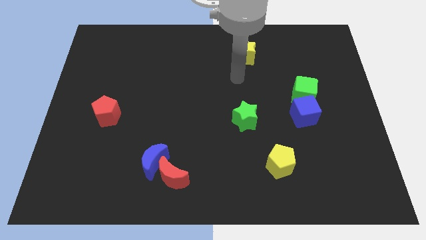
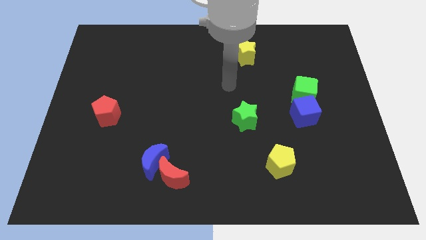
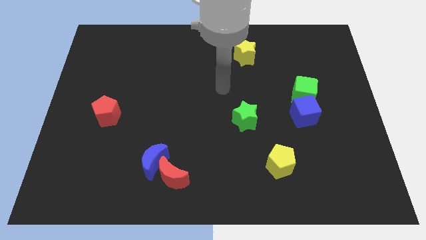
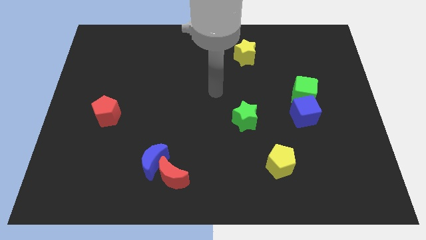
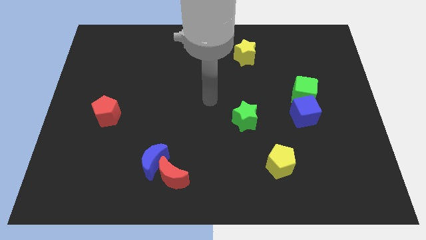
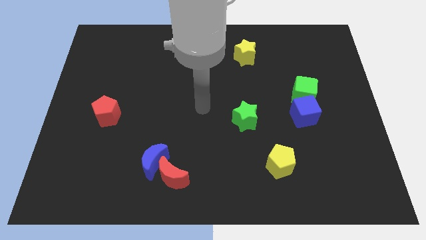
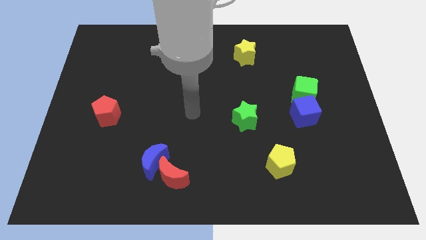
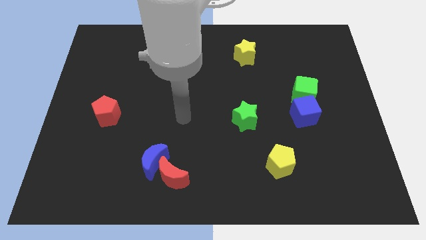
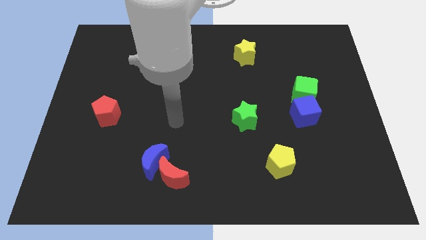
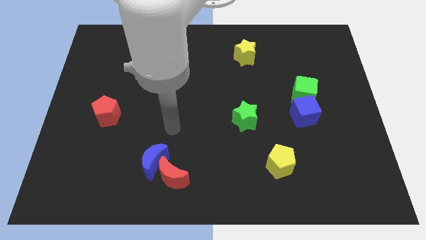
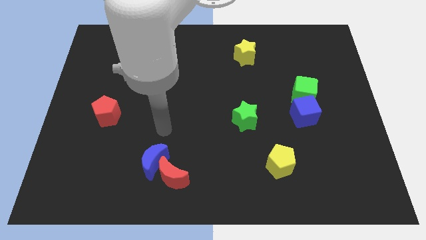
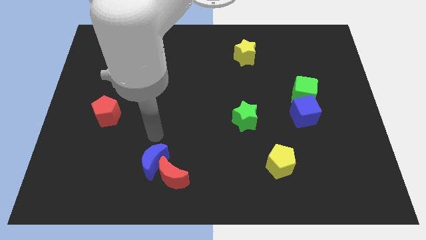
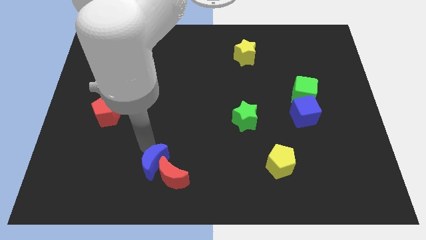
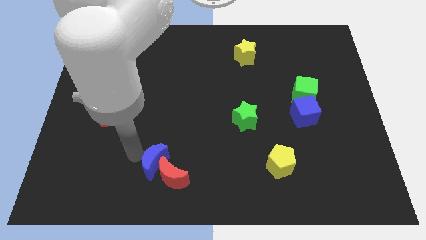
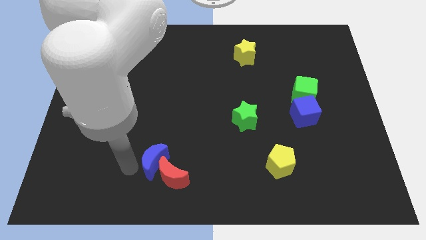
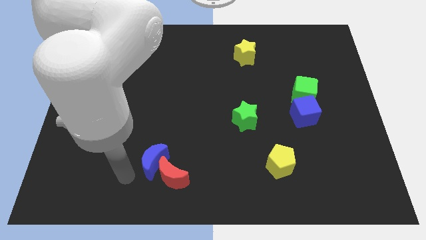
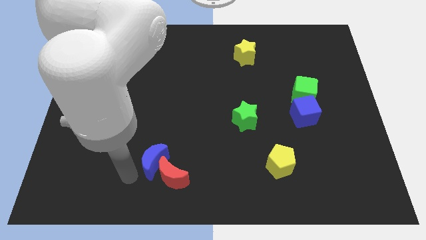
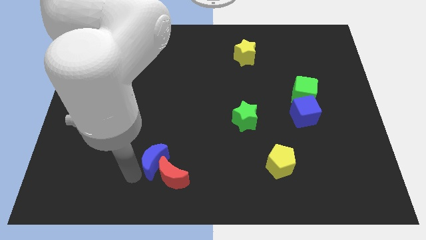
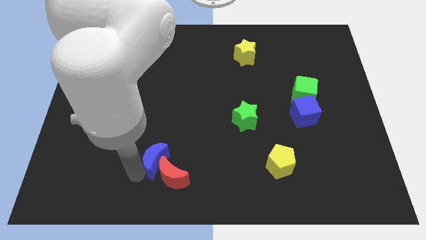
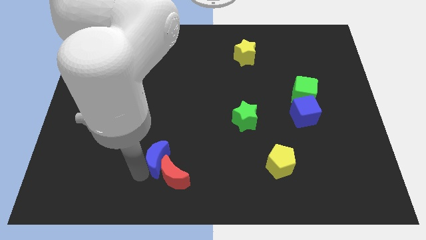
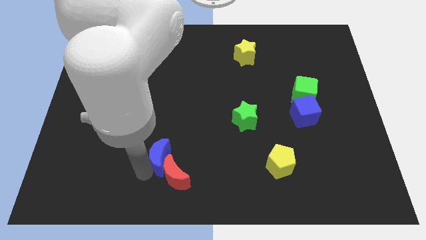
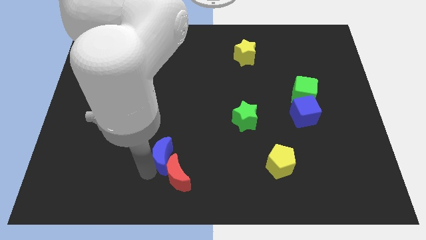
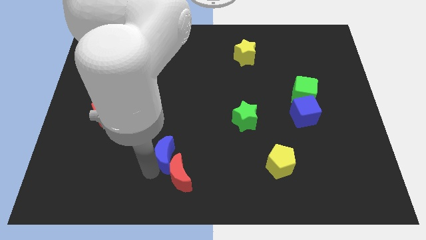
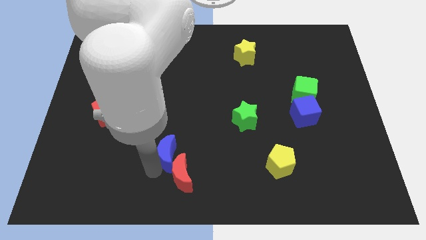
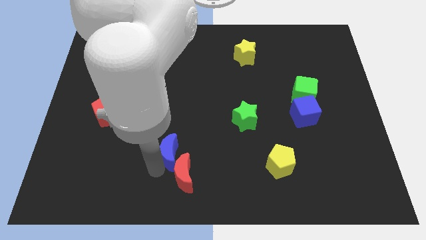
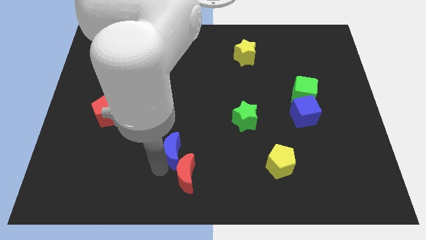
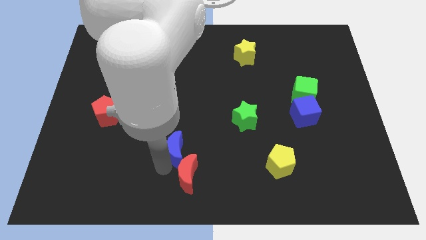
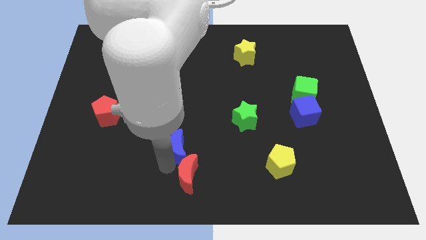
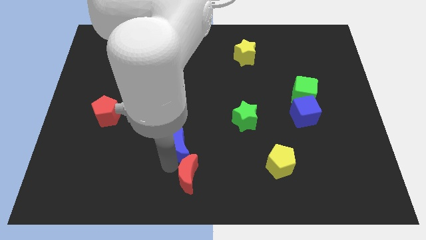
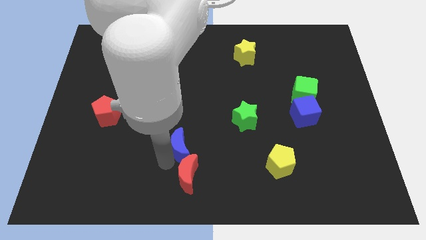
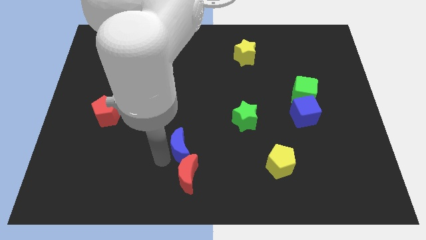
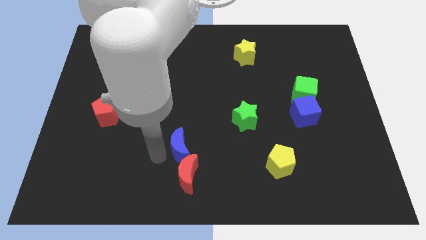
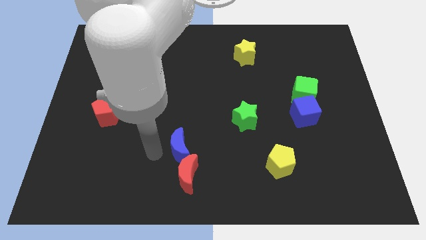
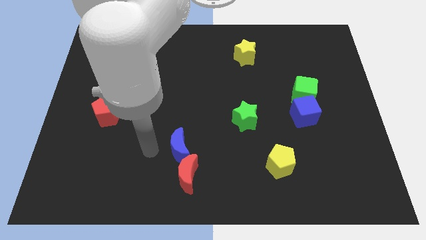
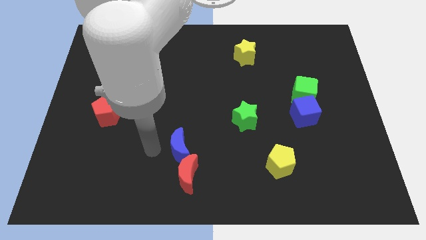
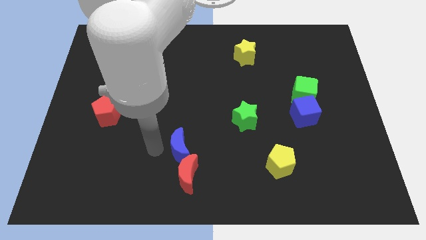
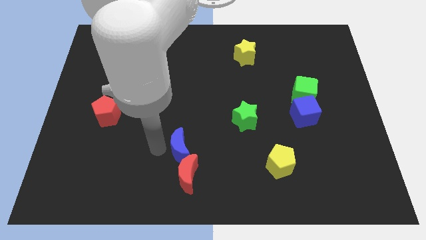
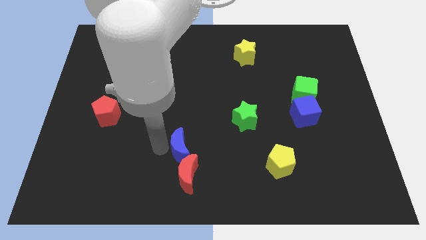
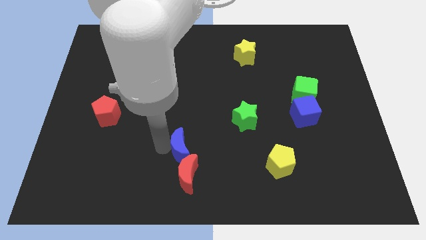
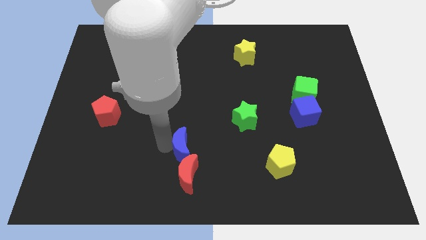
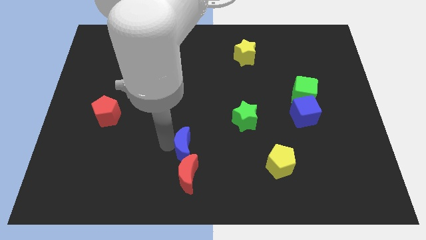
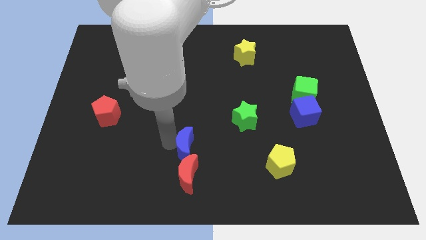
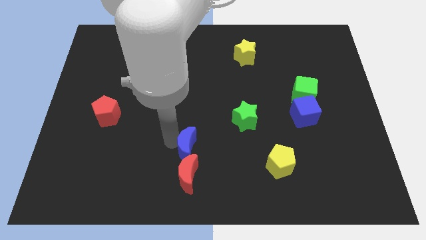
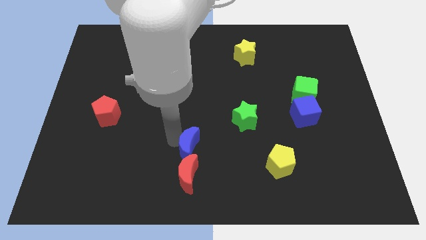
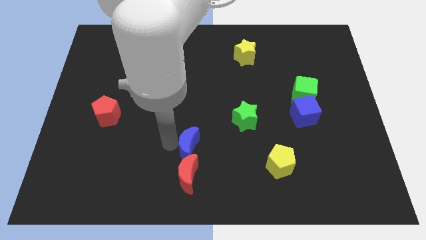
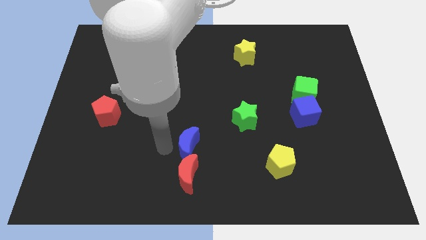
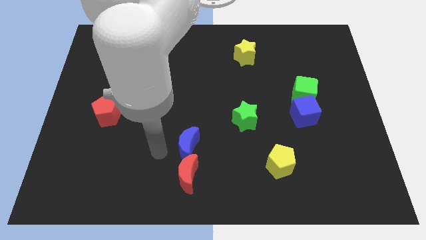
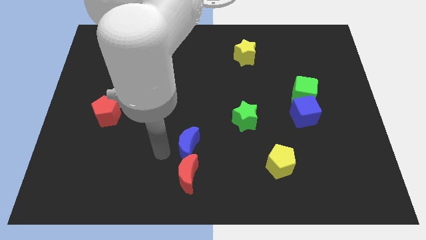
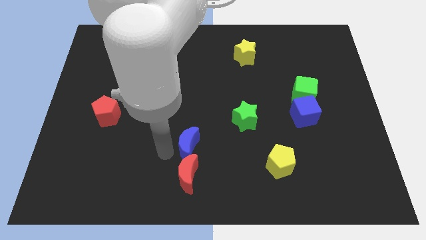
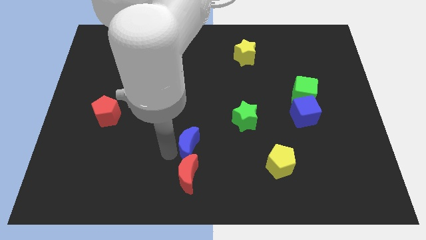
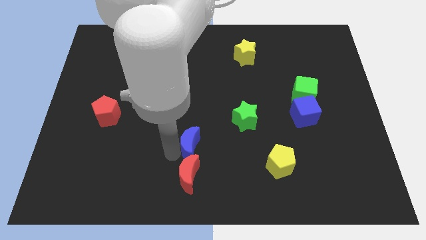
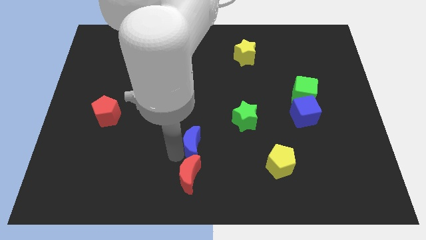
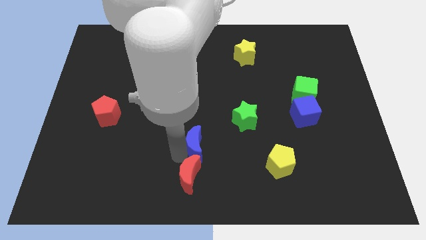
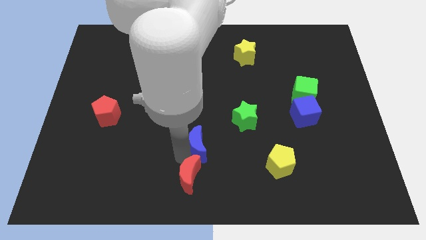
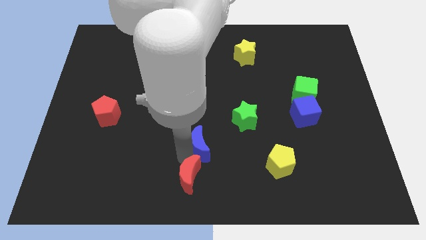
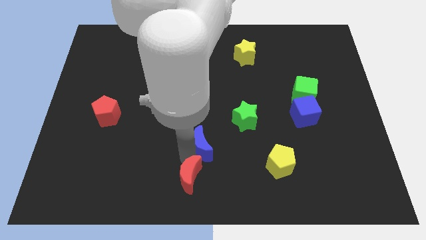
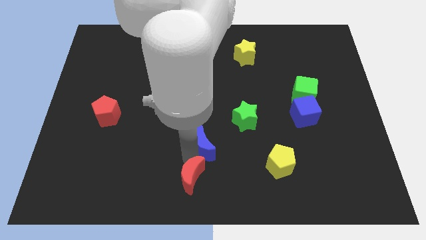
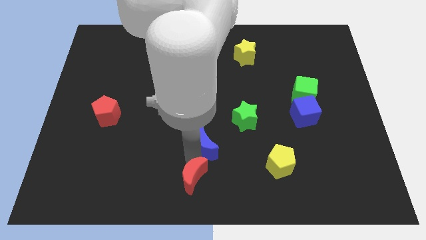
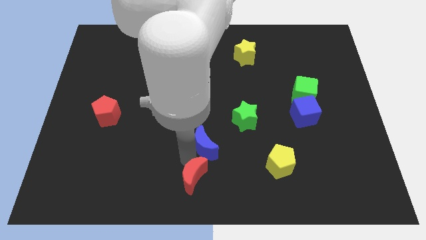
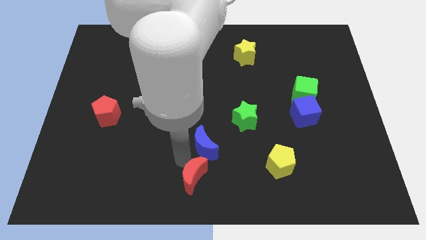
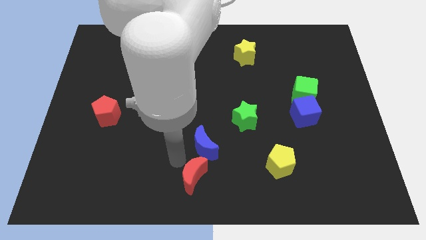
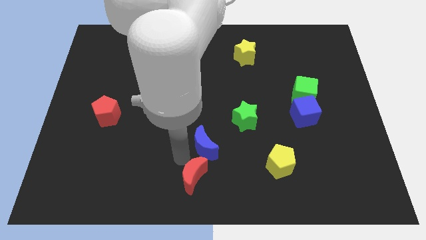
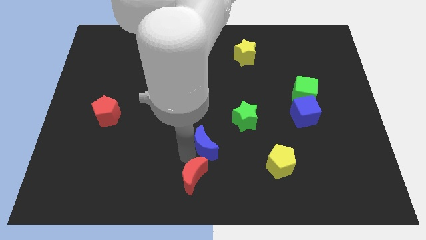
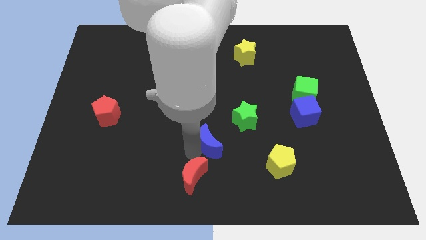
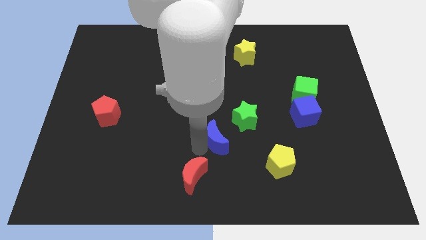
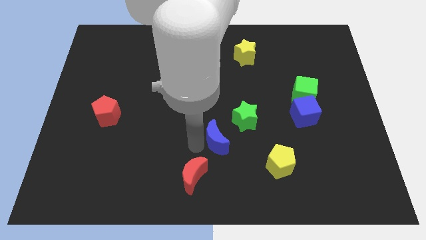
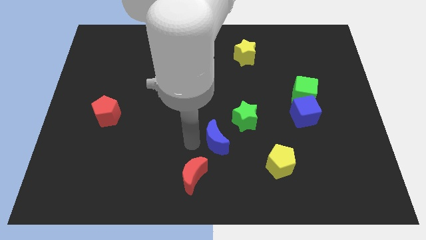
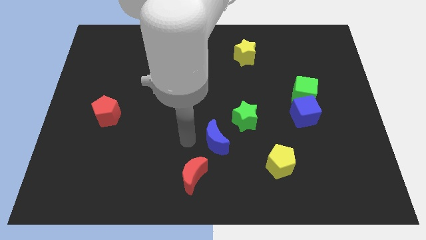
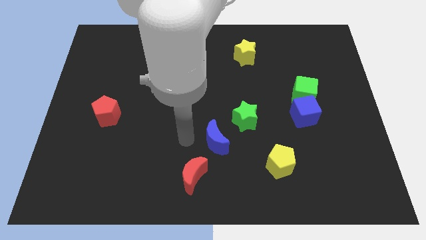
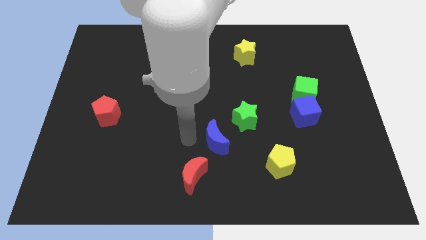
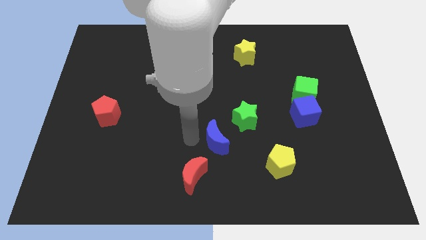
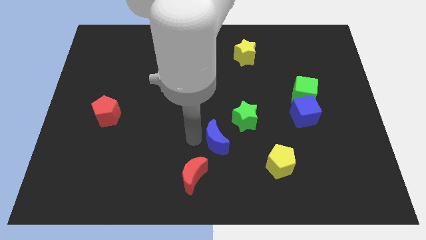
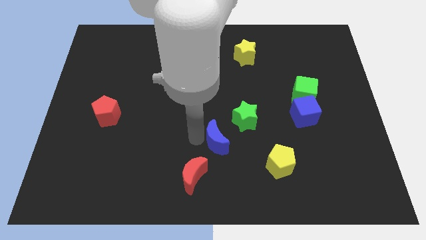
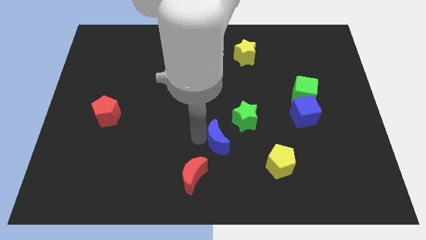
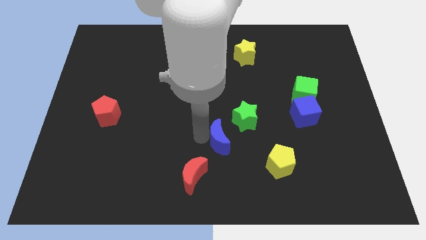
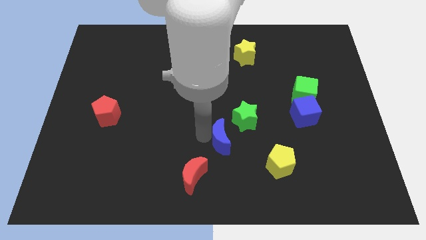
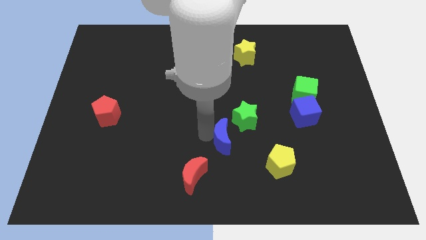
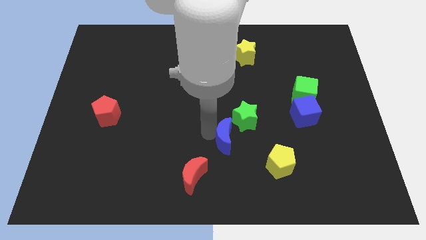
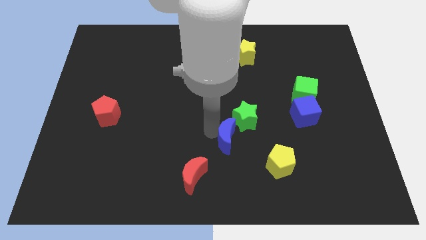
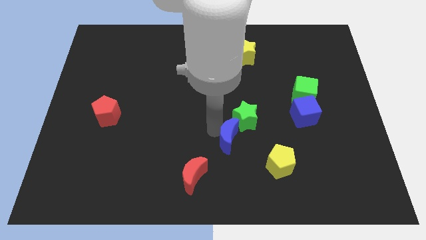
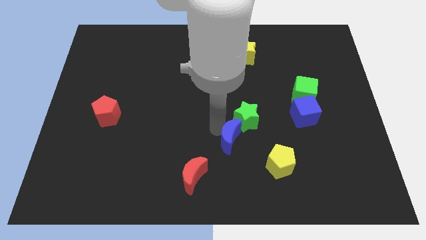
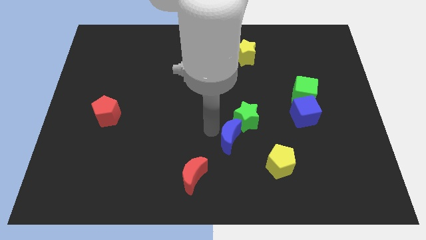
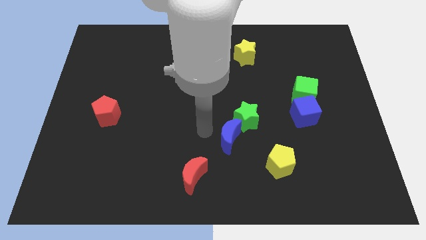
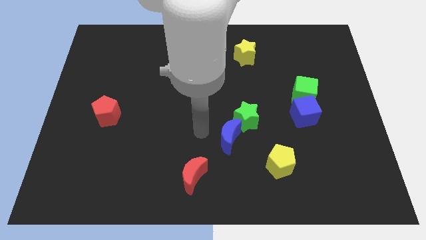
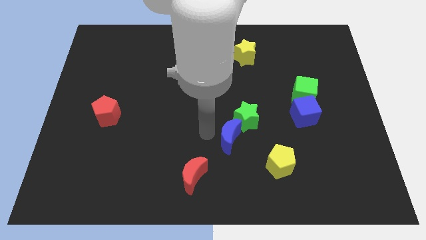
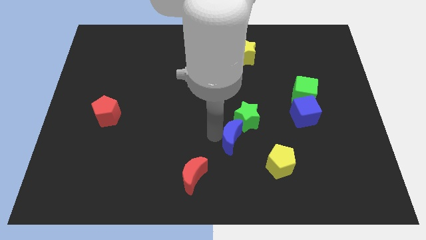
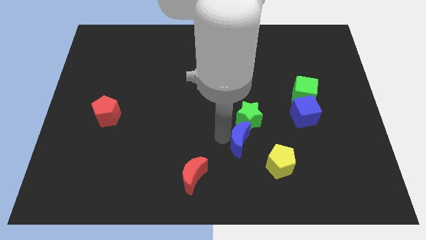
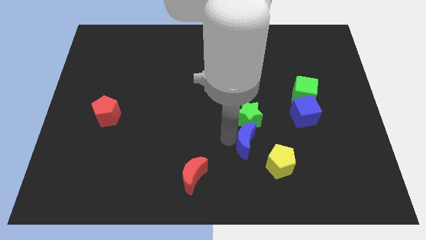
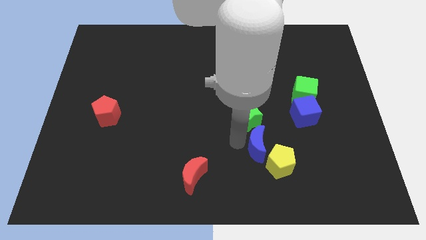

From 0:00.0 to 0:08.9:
push the blue moon to the right
